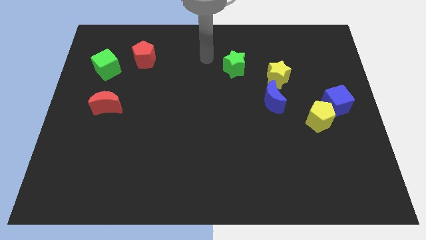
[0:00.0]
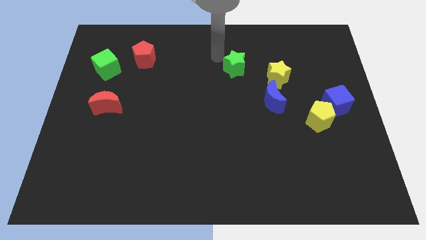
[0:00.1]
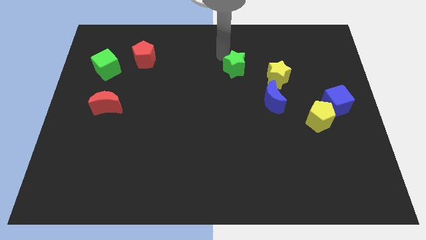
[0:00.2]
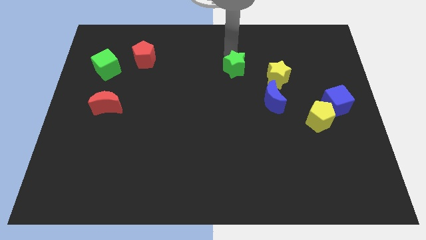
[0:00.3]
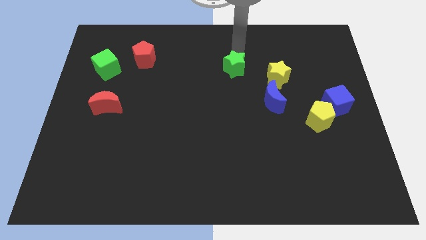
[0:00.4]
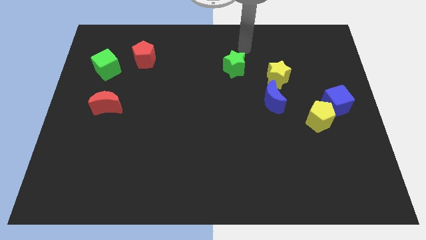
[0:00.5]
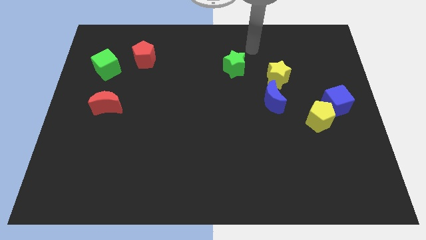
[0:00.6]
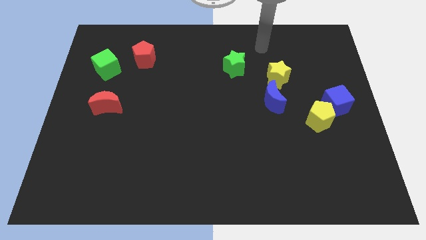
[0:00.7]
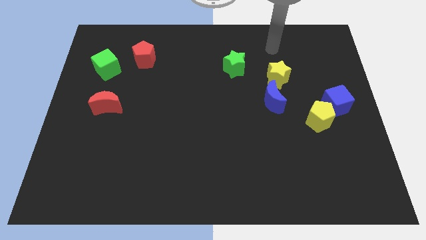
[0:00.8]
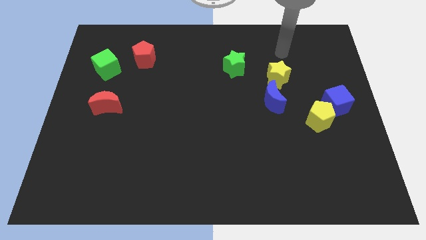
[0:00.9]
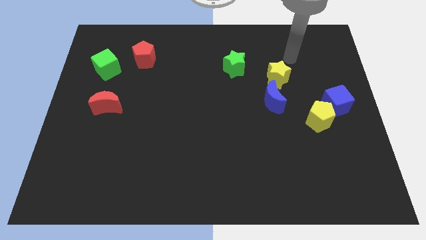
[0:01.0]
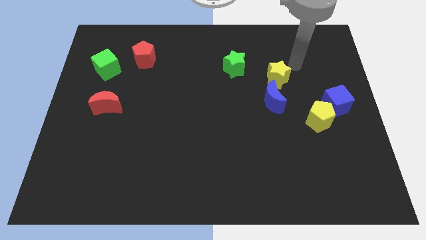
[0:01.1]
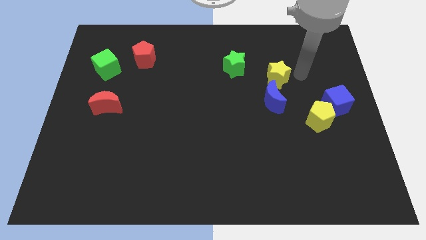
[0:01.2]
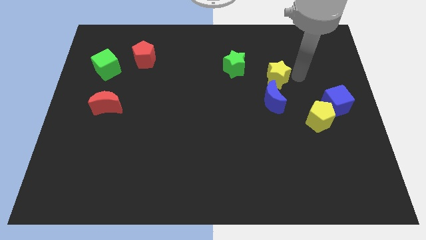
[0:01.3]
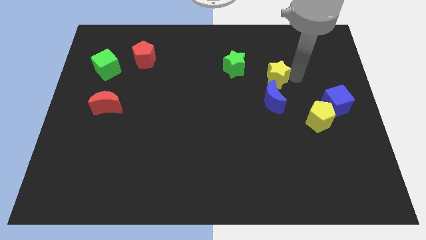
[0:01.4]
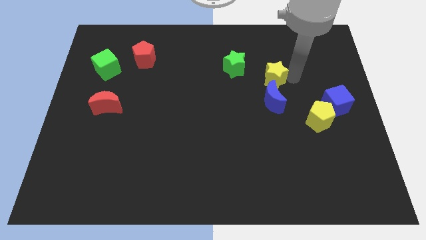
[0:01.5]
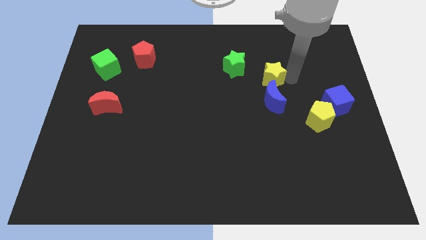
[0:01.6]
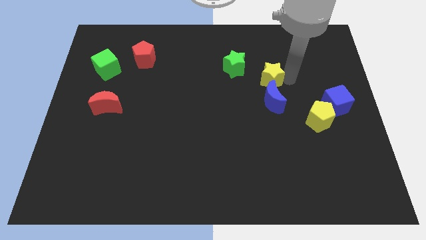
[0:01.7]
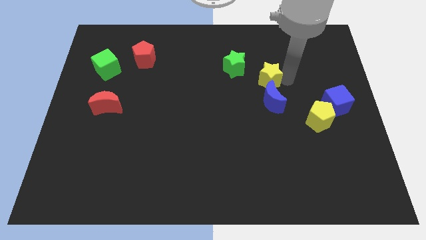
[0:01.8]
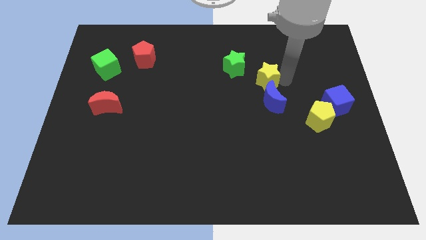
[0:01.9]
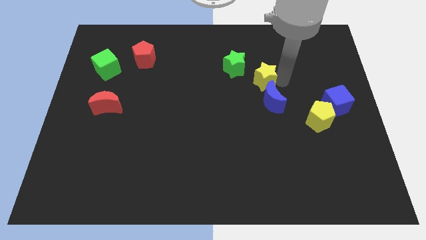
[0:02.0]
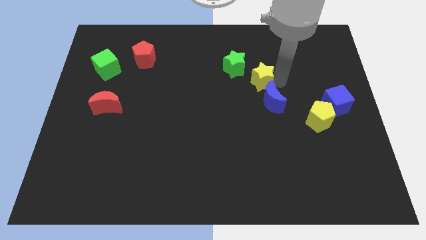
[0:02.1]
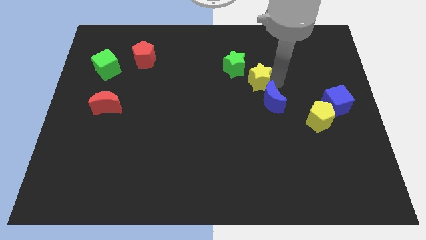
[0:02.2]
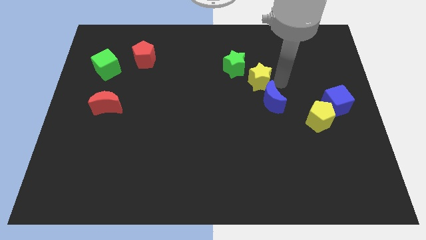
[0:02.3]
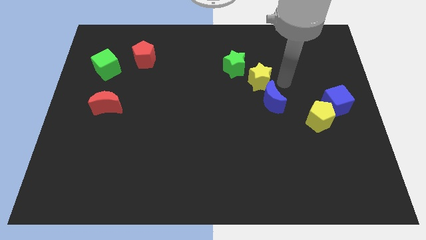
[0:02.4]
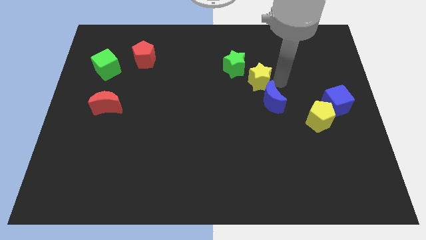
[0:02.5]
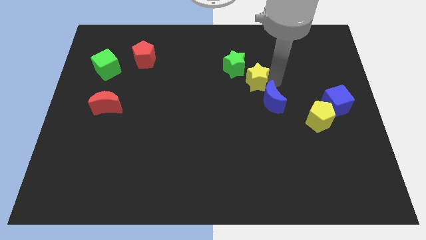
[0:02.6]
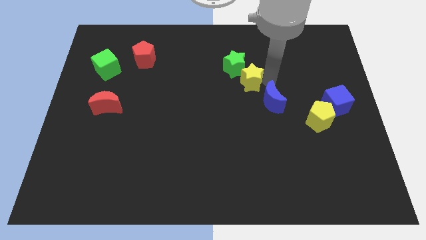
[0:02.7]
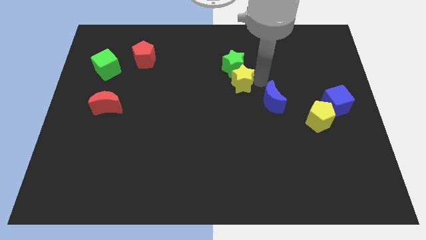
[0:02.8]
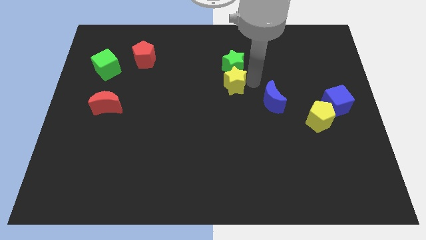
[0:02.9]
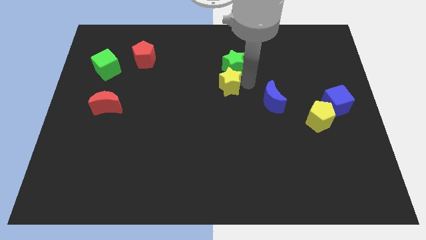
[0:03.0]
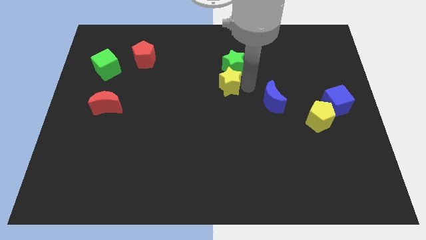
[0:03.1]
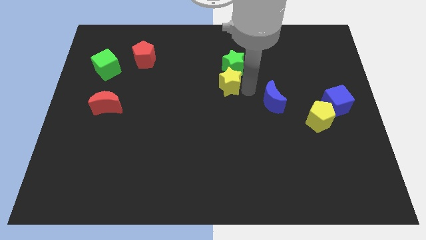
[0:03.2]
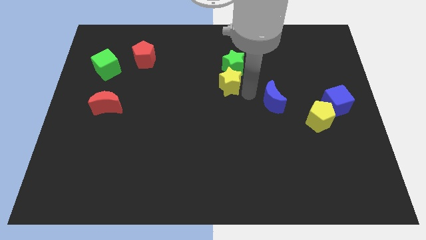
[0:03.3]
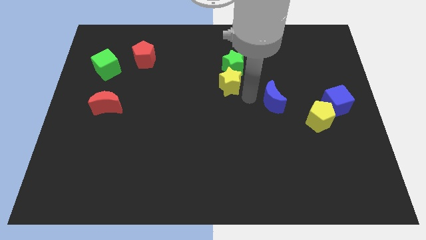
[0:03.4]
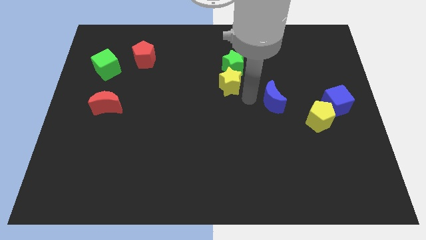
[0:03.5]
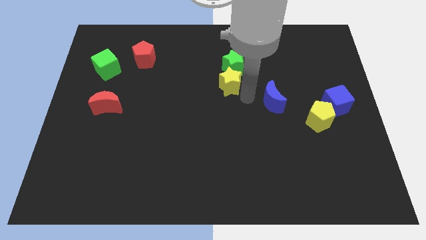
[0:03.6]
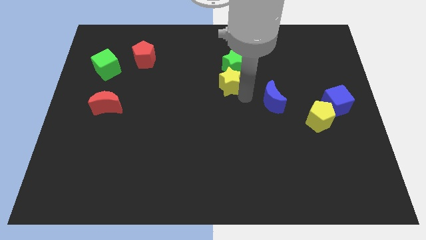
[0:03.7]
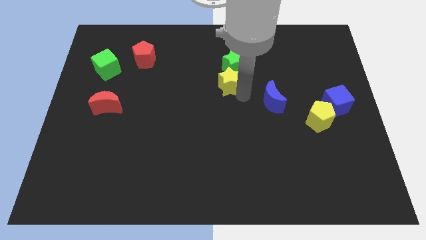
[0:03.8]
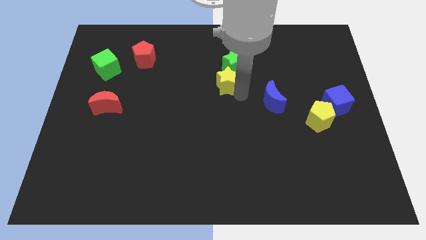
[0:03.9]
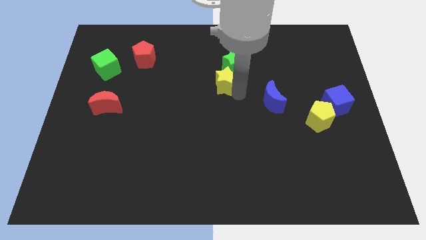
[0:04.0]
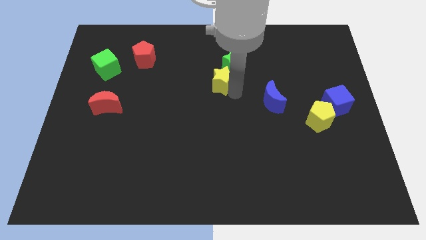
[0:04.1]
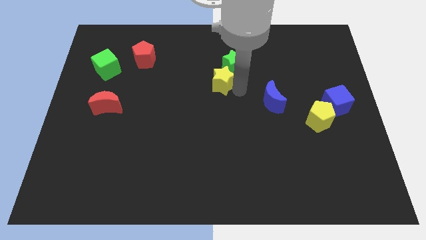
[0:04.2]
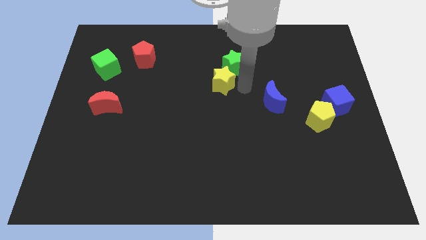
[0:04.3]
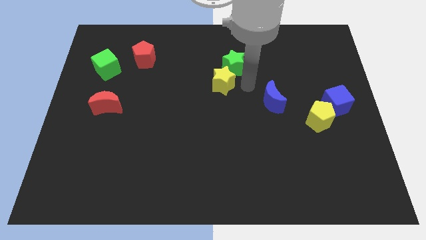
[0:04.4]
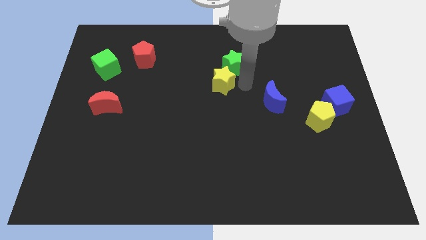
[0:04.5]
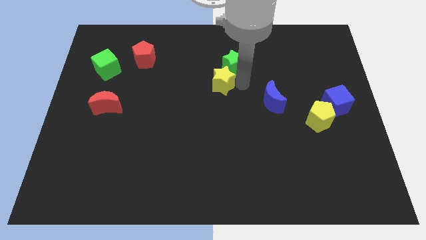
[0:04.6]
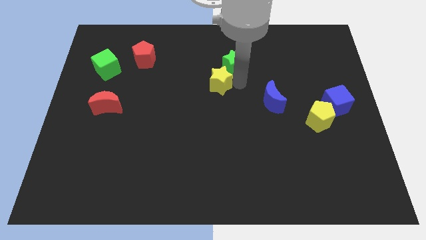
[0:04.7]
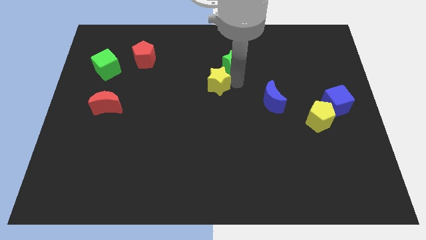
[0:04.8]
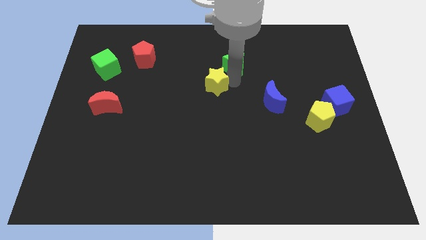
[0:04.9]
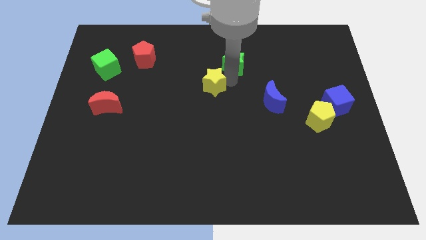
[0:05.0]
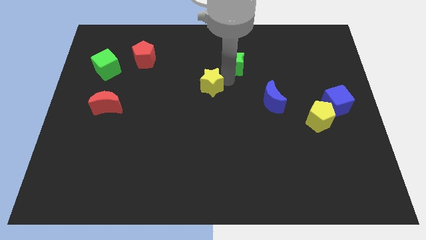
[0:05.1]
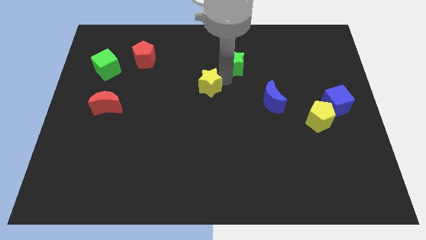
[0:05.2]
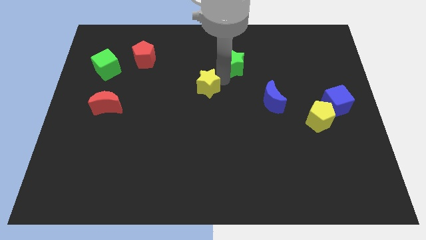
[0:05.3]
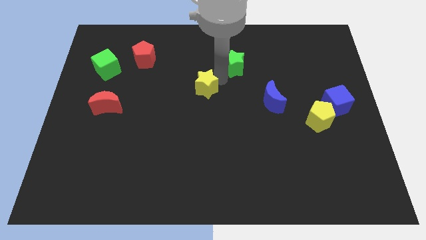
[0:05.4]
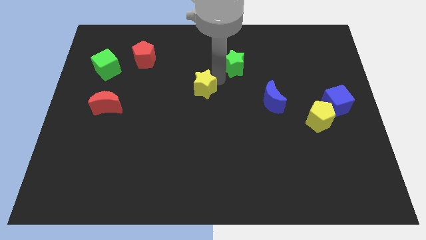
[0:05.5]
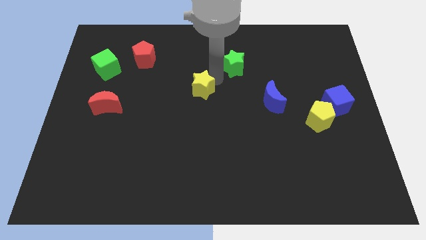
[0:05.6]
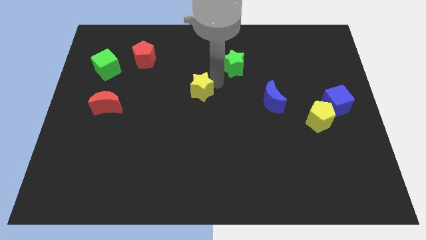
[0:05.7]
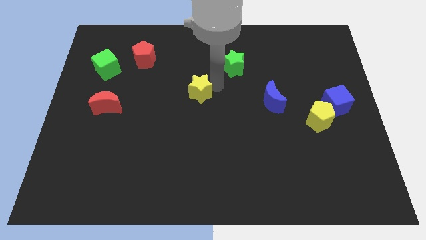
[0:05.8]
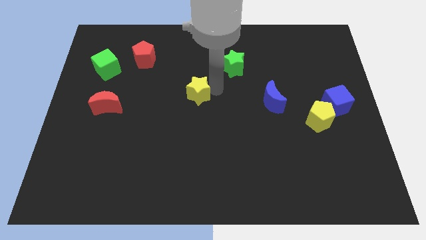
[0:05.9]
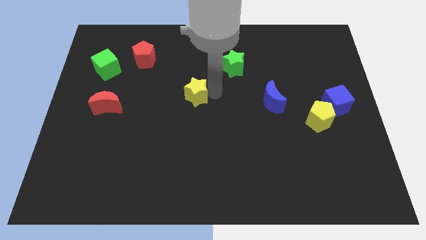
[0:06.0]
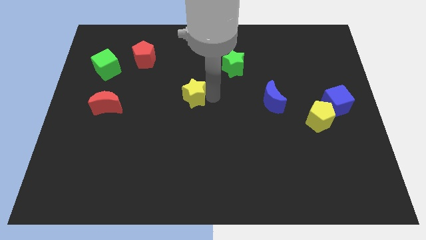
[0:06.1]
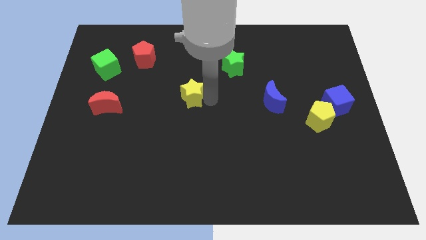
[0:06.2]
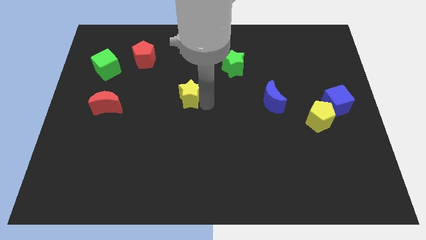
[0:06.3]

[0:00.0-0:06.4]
slide the yellow star left

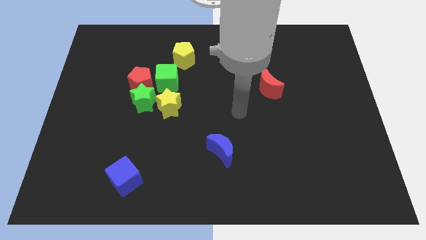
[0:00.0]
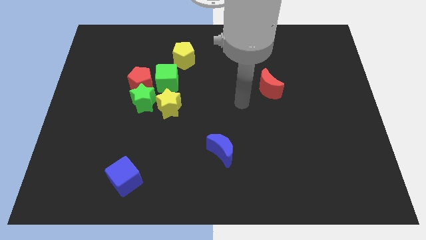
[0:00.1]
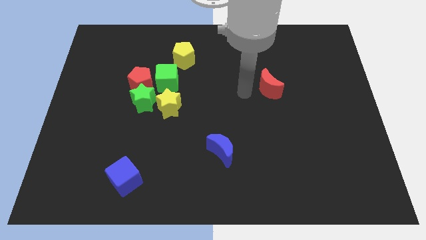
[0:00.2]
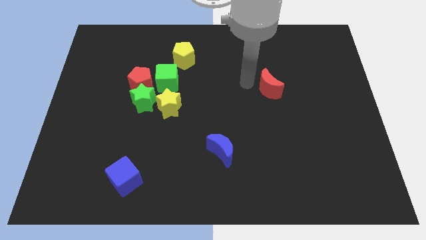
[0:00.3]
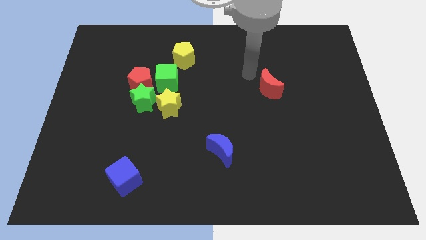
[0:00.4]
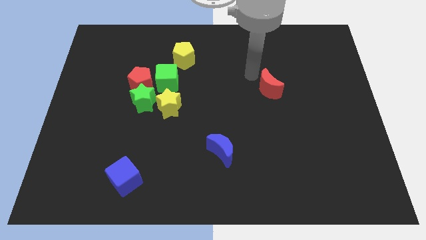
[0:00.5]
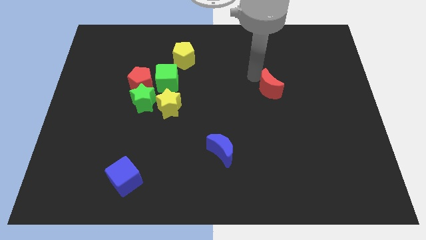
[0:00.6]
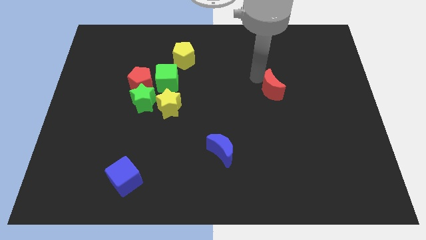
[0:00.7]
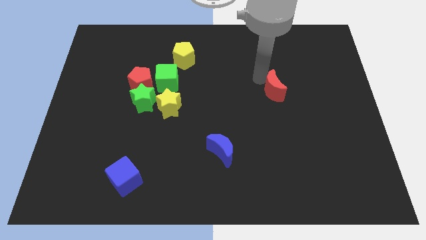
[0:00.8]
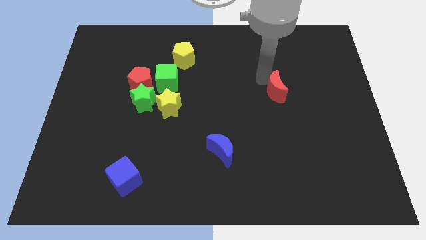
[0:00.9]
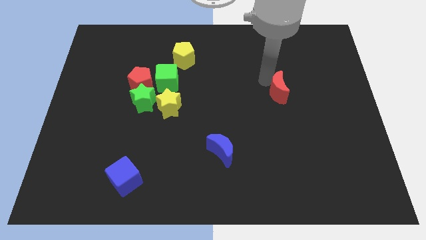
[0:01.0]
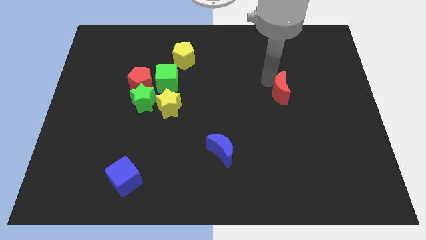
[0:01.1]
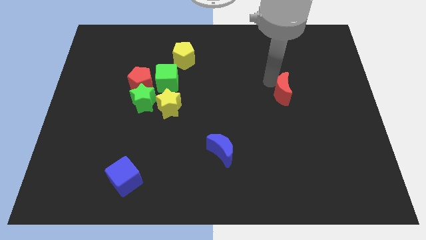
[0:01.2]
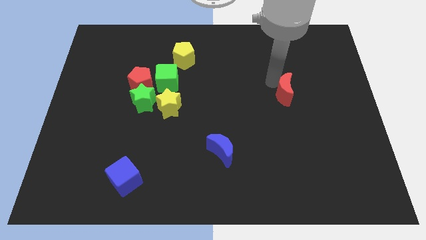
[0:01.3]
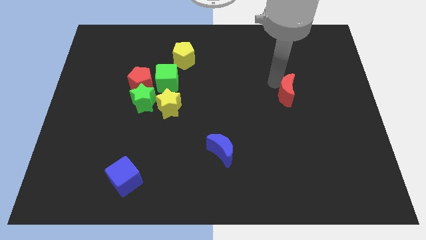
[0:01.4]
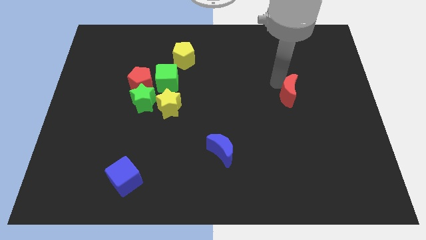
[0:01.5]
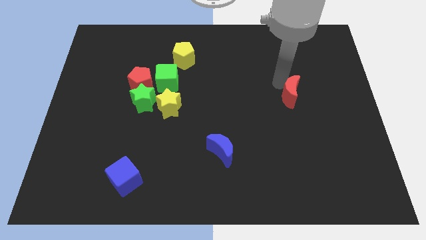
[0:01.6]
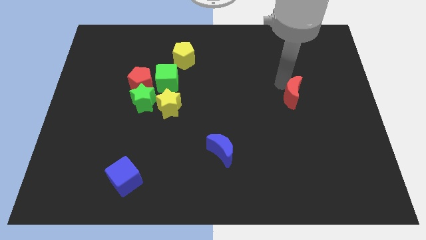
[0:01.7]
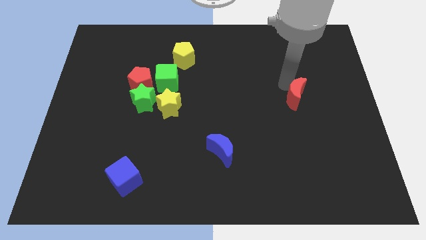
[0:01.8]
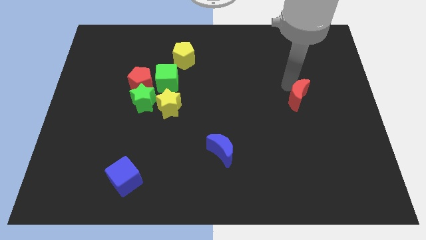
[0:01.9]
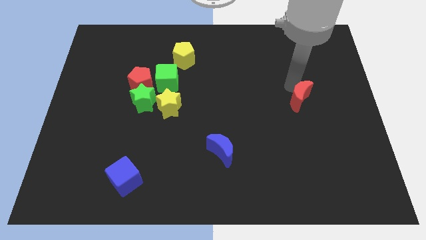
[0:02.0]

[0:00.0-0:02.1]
push the red moon down and right diagonally a bit
